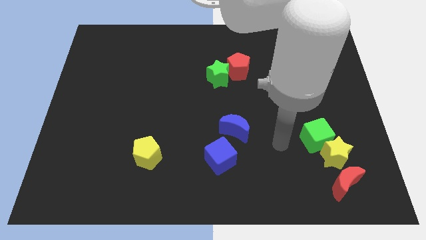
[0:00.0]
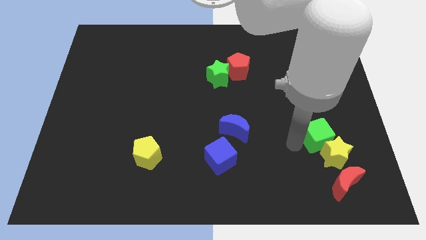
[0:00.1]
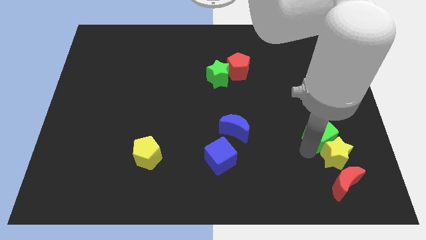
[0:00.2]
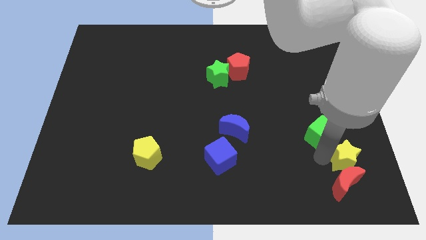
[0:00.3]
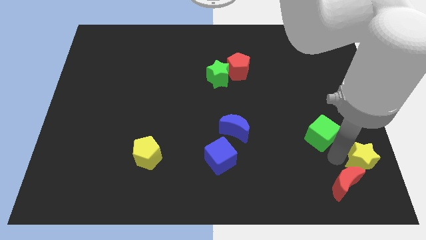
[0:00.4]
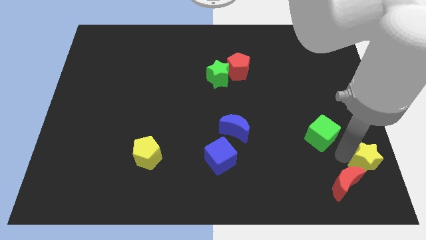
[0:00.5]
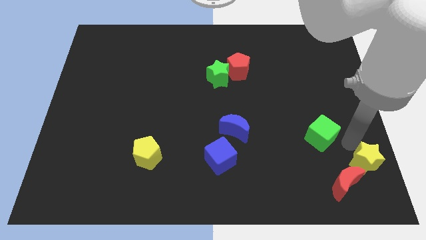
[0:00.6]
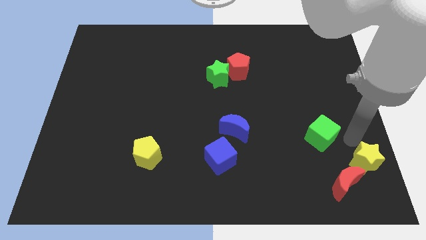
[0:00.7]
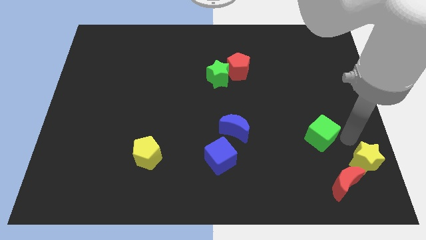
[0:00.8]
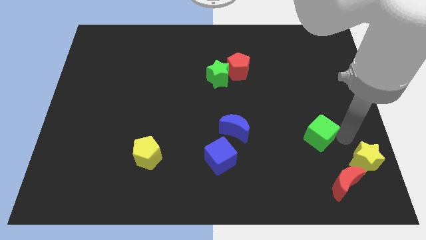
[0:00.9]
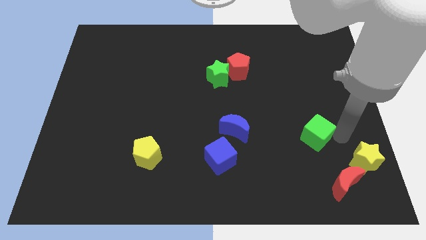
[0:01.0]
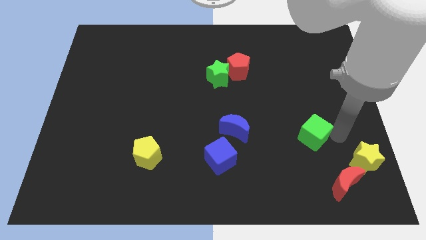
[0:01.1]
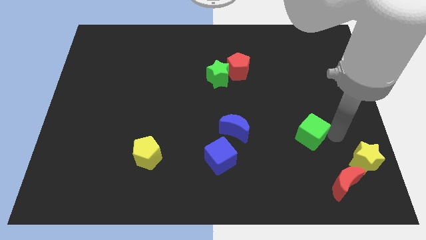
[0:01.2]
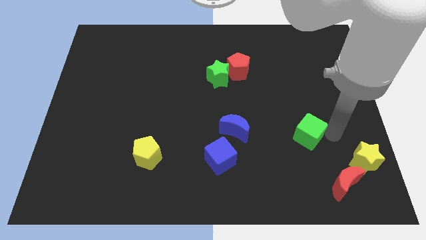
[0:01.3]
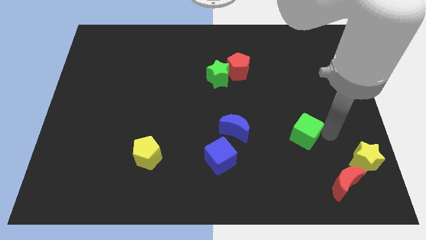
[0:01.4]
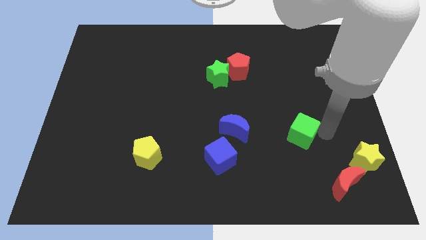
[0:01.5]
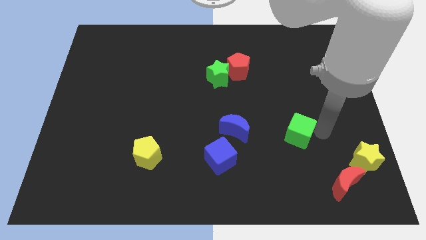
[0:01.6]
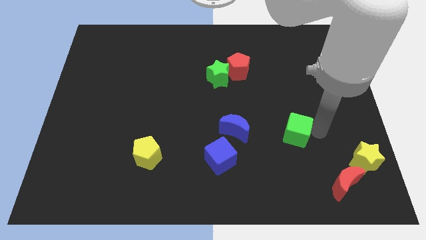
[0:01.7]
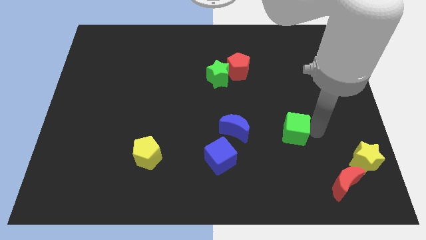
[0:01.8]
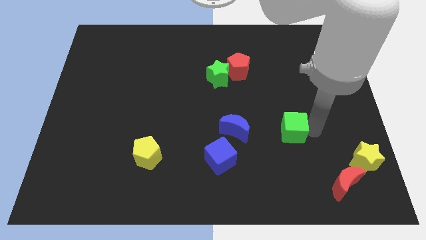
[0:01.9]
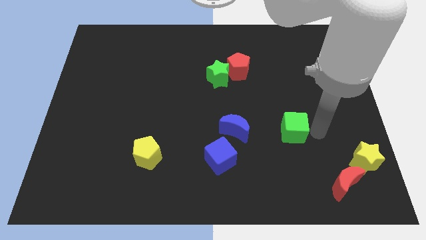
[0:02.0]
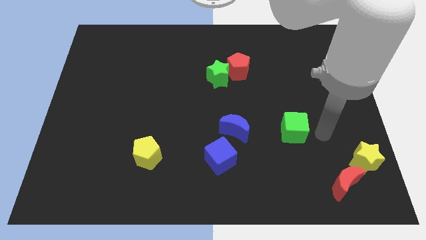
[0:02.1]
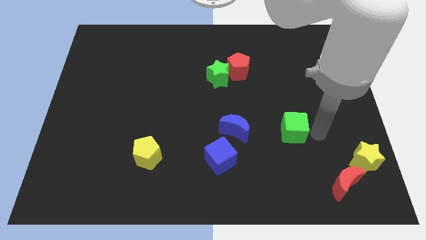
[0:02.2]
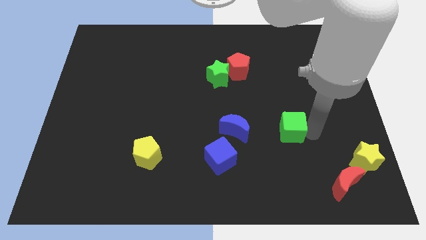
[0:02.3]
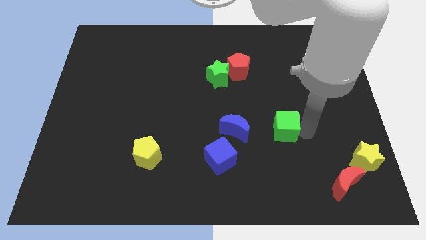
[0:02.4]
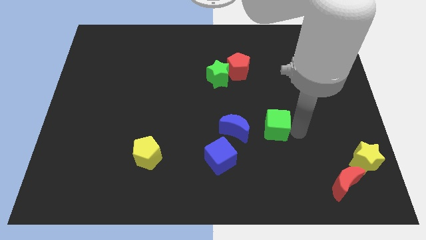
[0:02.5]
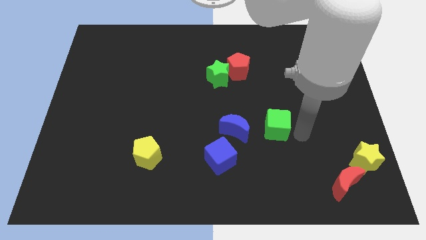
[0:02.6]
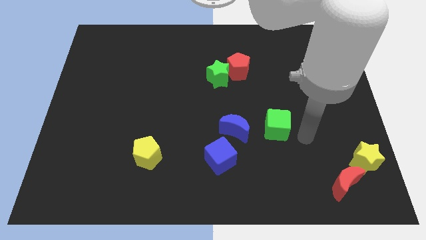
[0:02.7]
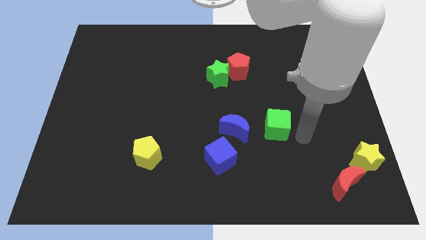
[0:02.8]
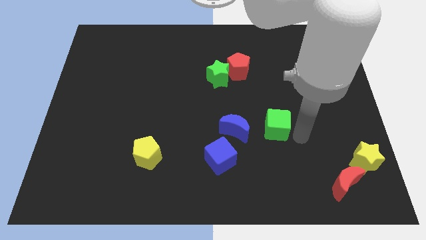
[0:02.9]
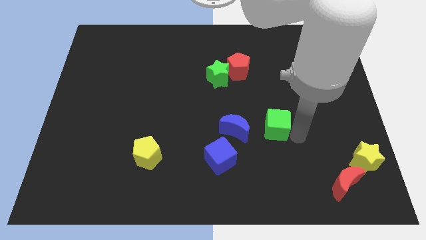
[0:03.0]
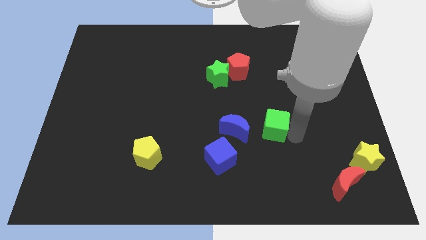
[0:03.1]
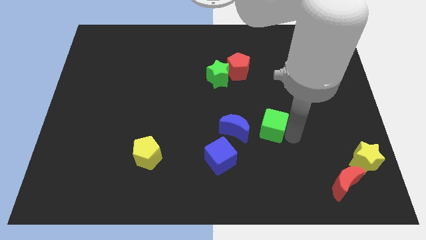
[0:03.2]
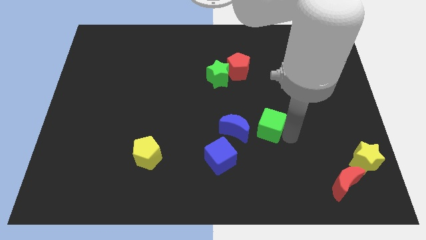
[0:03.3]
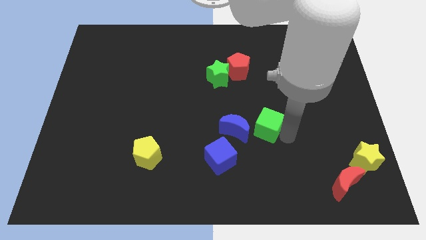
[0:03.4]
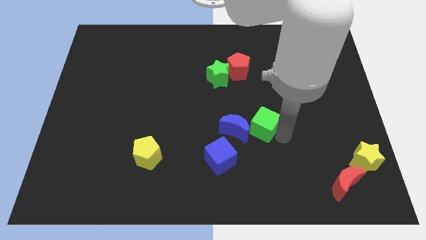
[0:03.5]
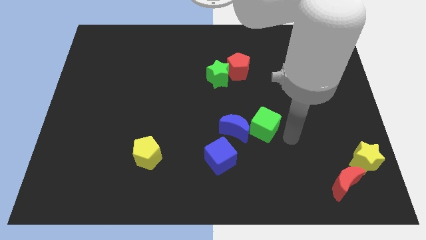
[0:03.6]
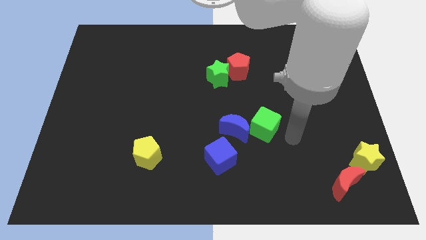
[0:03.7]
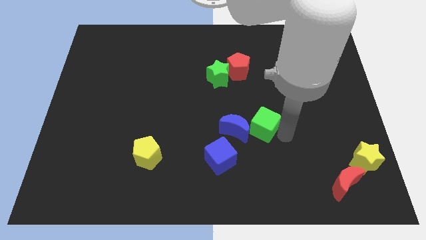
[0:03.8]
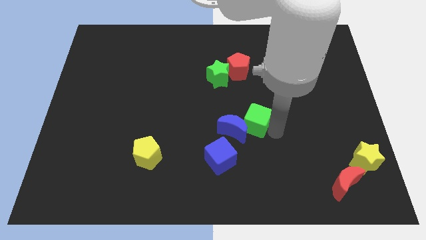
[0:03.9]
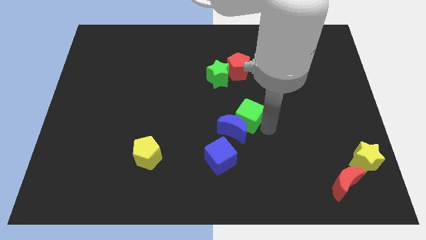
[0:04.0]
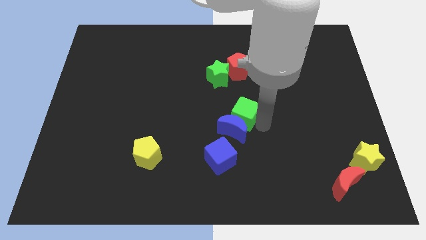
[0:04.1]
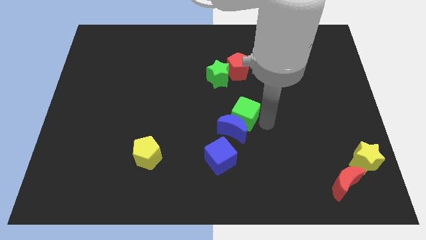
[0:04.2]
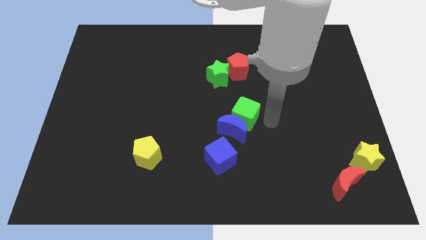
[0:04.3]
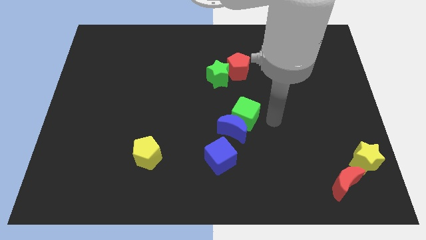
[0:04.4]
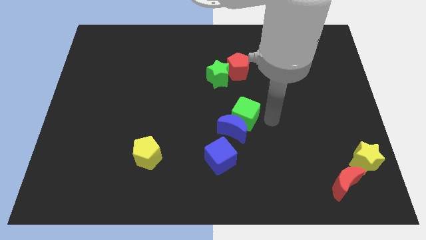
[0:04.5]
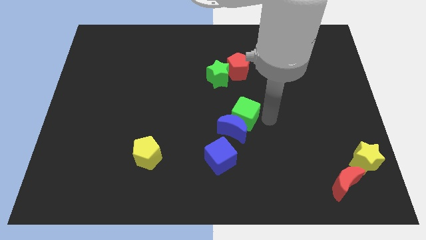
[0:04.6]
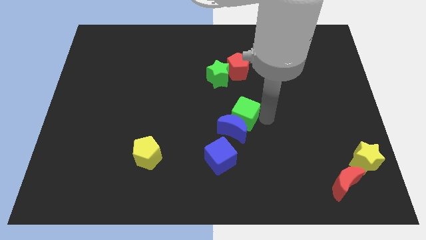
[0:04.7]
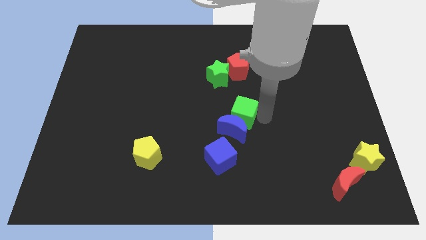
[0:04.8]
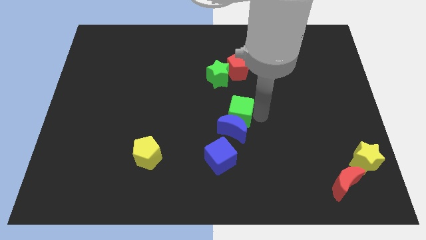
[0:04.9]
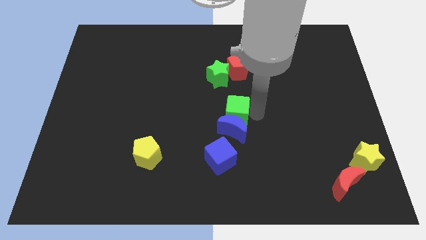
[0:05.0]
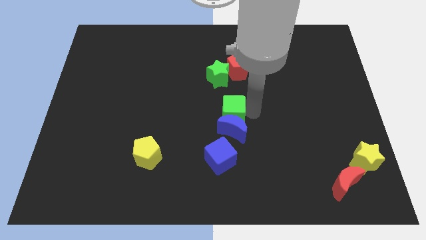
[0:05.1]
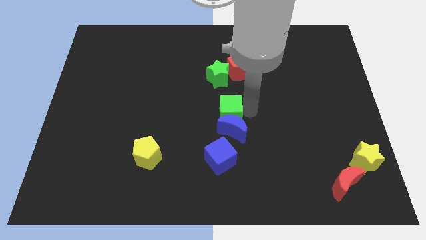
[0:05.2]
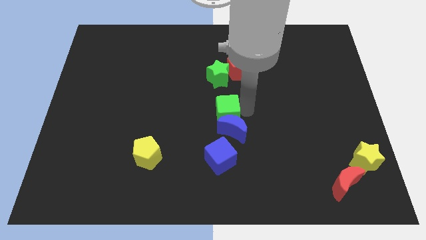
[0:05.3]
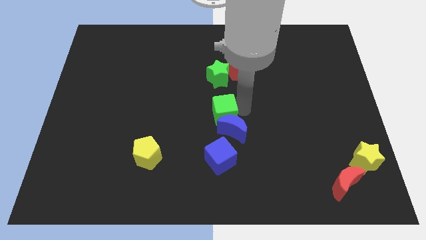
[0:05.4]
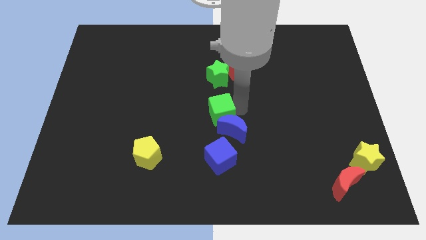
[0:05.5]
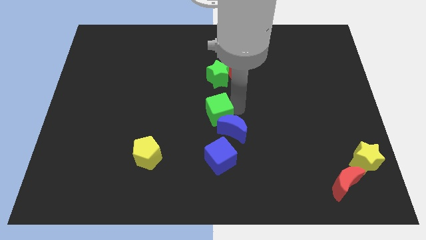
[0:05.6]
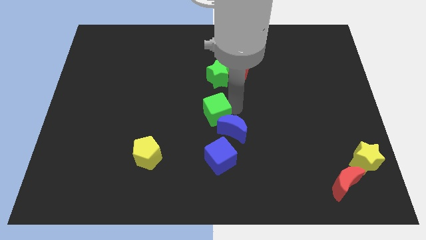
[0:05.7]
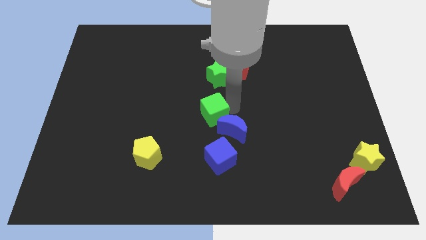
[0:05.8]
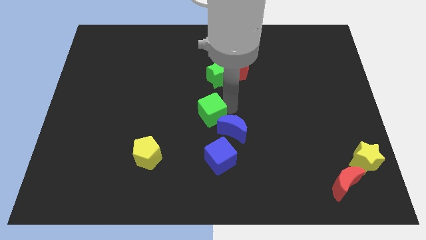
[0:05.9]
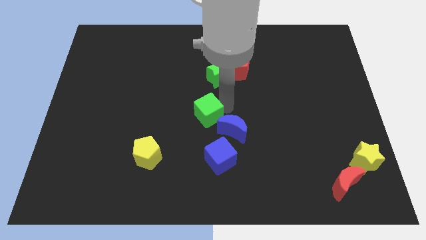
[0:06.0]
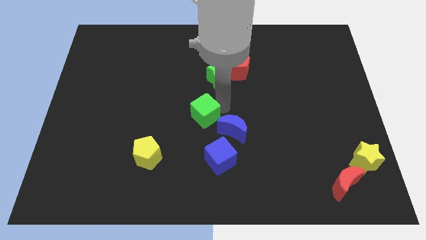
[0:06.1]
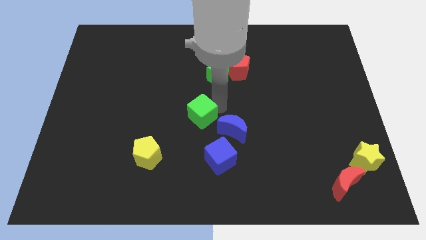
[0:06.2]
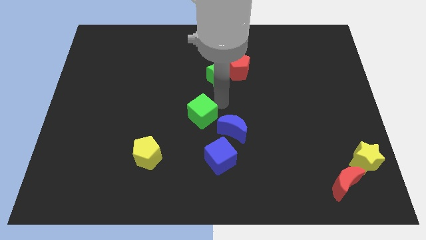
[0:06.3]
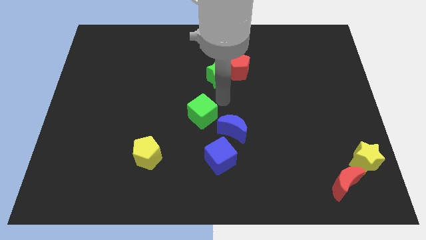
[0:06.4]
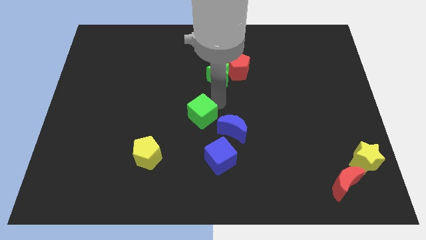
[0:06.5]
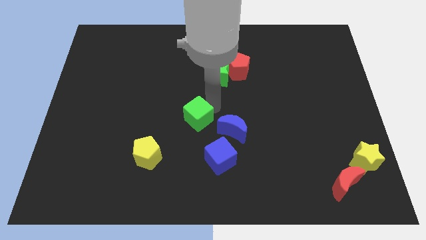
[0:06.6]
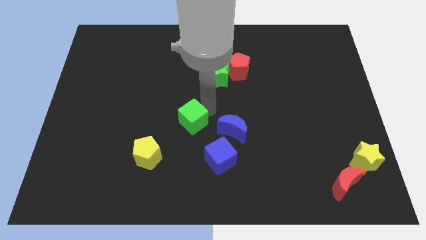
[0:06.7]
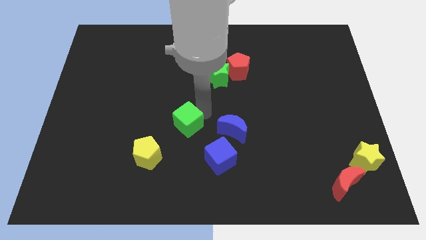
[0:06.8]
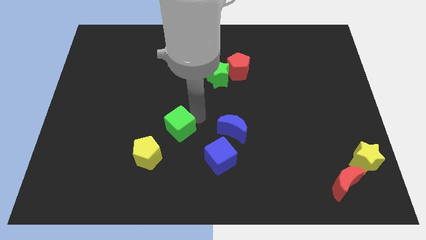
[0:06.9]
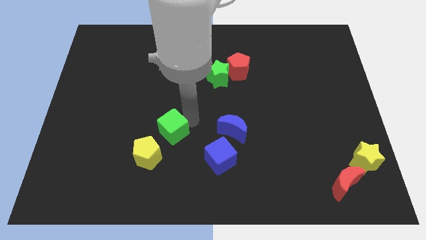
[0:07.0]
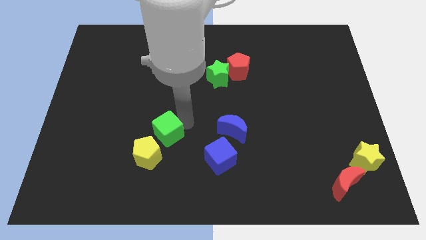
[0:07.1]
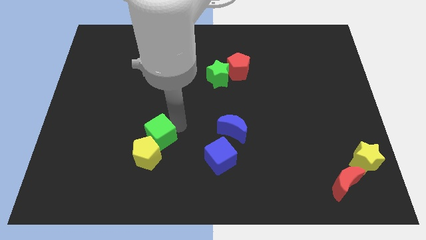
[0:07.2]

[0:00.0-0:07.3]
push the green cube towards the yellow pentagon
